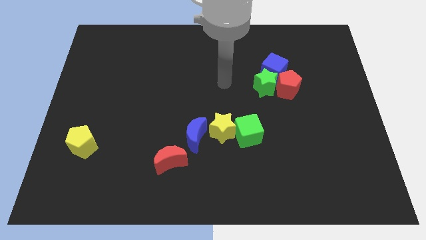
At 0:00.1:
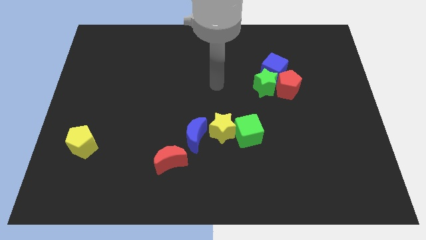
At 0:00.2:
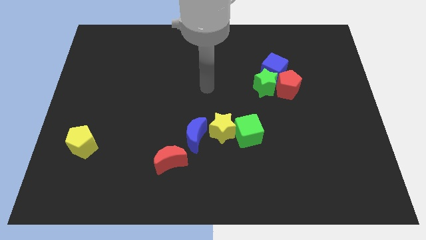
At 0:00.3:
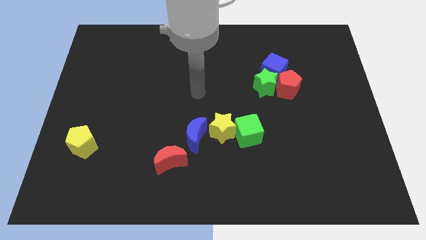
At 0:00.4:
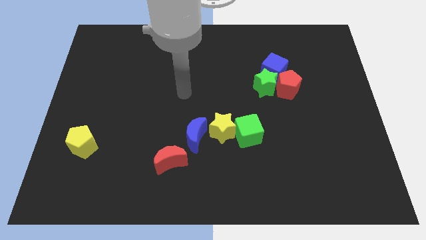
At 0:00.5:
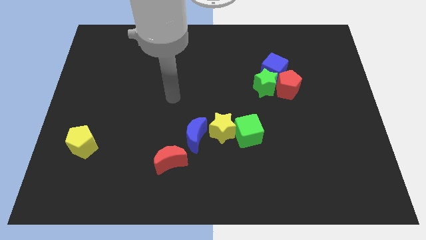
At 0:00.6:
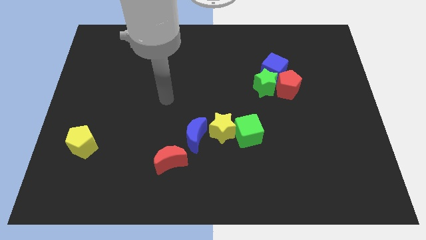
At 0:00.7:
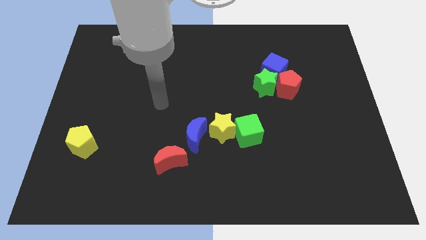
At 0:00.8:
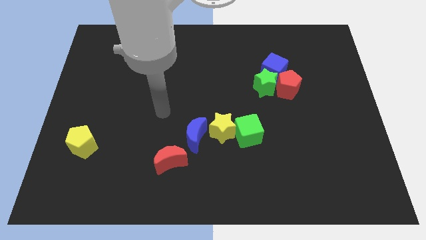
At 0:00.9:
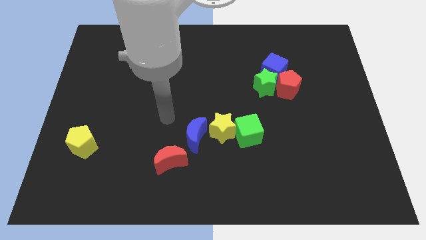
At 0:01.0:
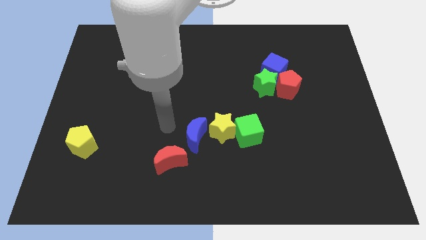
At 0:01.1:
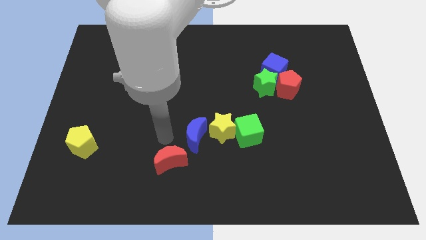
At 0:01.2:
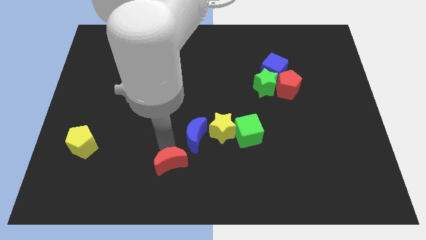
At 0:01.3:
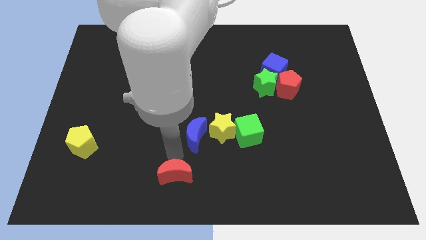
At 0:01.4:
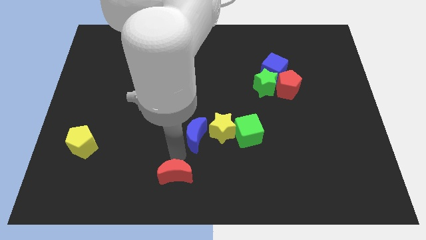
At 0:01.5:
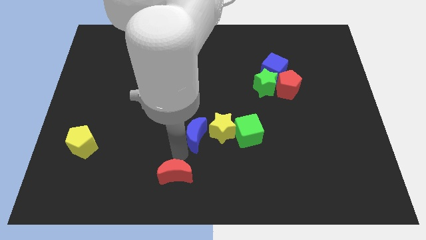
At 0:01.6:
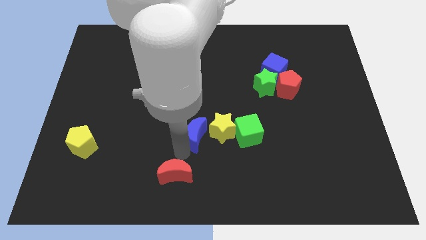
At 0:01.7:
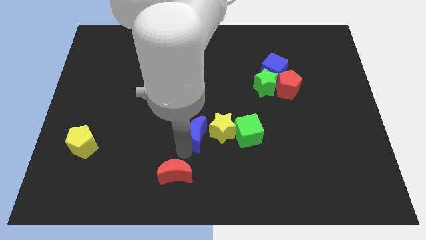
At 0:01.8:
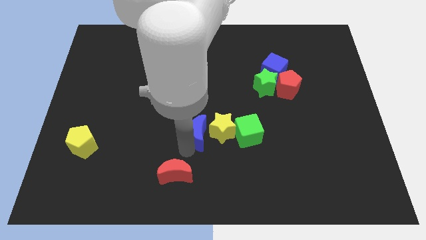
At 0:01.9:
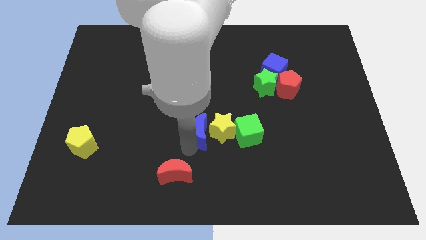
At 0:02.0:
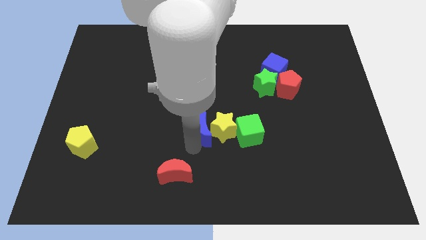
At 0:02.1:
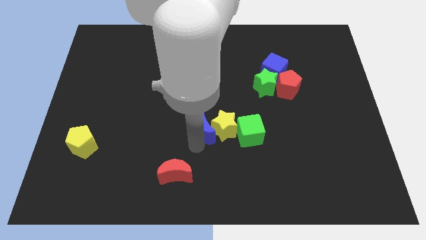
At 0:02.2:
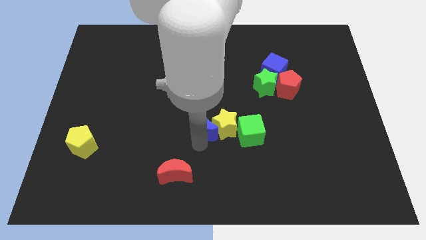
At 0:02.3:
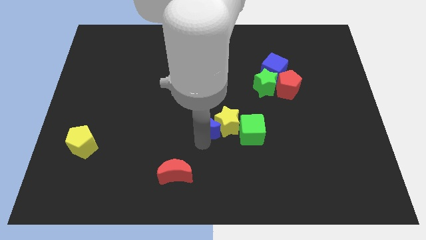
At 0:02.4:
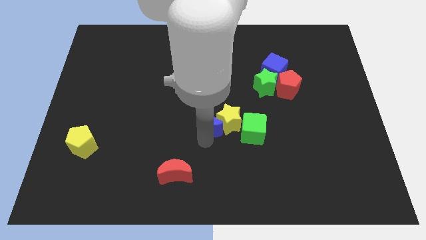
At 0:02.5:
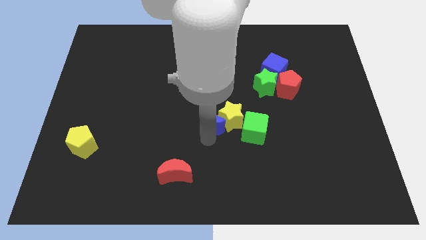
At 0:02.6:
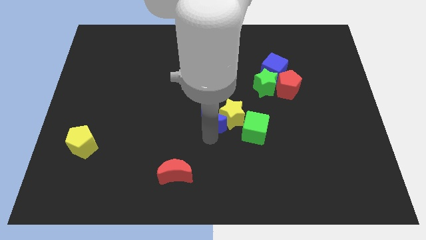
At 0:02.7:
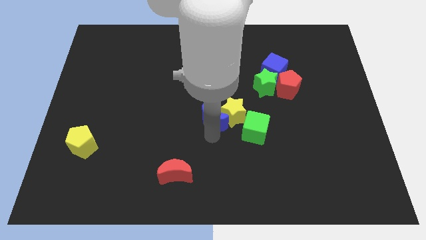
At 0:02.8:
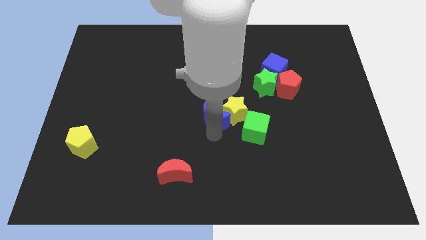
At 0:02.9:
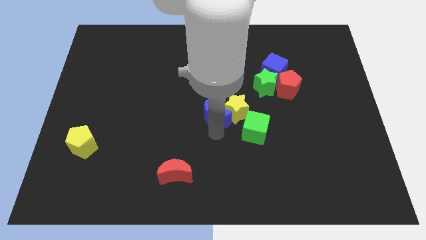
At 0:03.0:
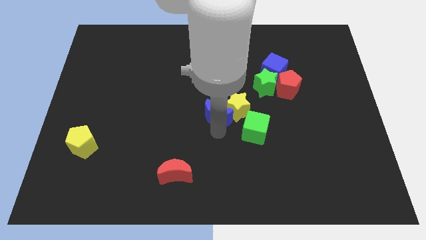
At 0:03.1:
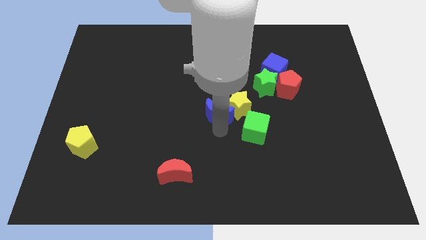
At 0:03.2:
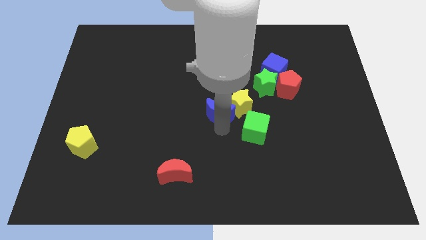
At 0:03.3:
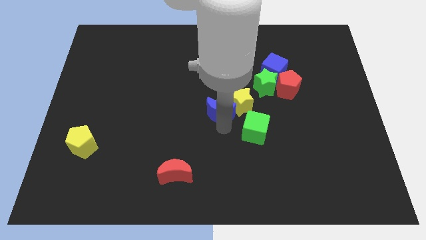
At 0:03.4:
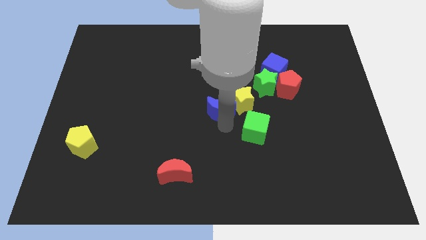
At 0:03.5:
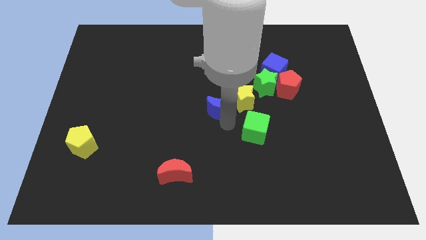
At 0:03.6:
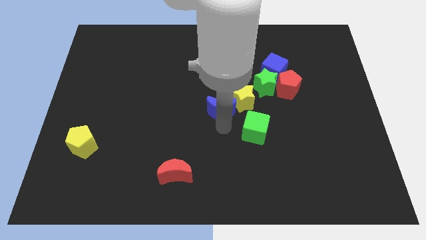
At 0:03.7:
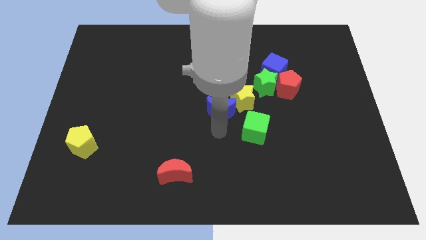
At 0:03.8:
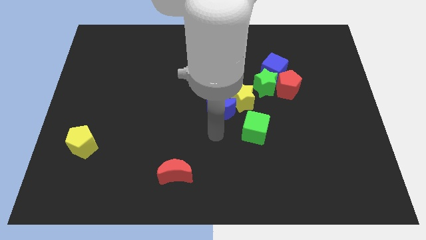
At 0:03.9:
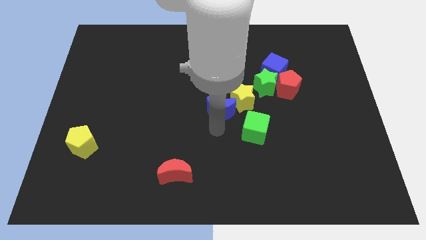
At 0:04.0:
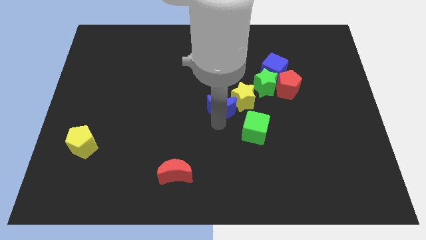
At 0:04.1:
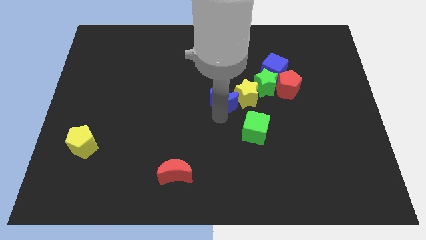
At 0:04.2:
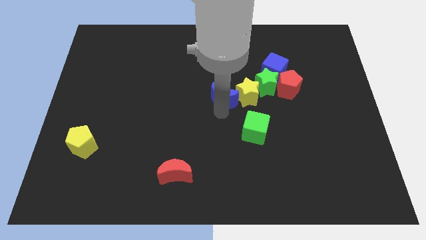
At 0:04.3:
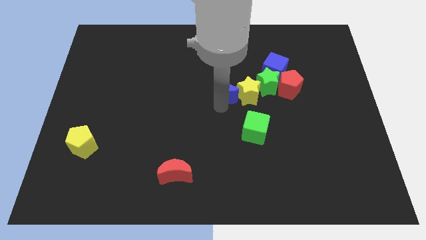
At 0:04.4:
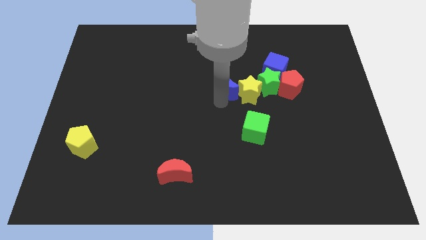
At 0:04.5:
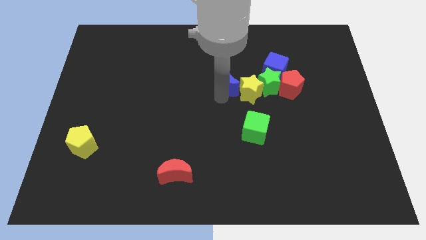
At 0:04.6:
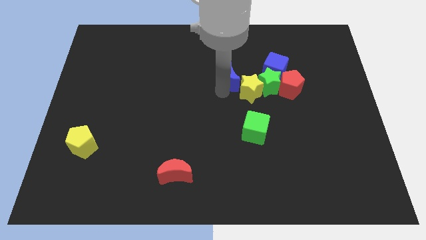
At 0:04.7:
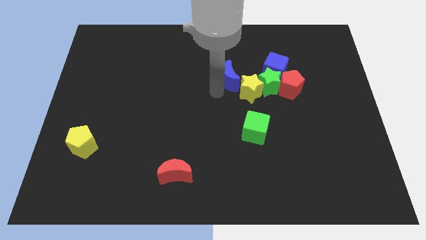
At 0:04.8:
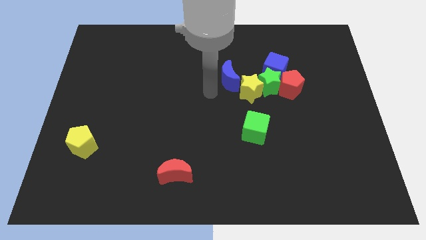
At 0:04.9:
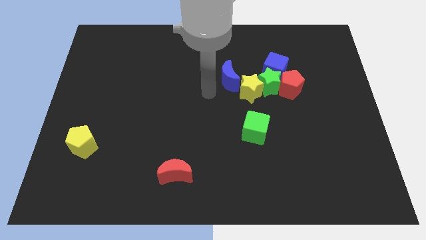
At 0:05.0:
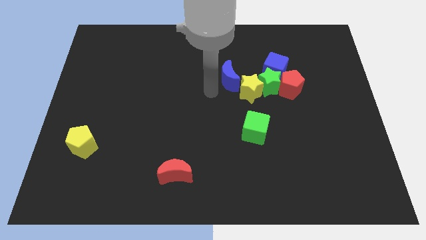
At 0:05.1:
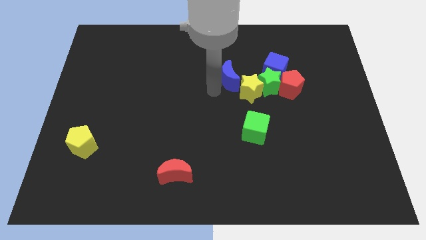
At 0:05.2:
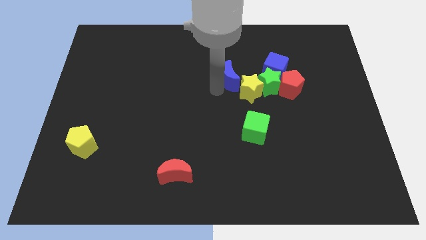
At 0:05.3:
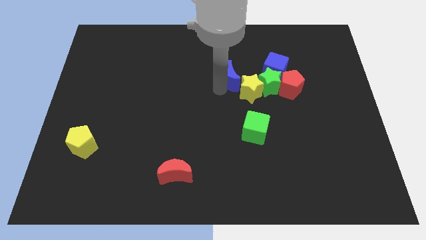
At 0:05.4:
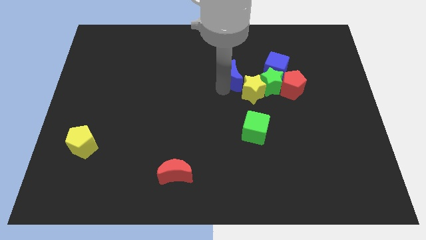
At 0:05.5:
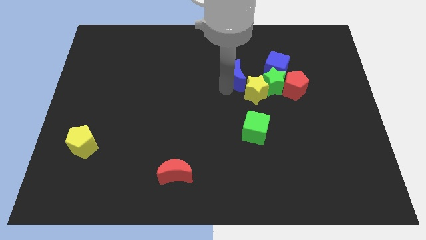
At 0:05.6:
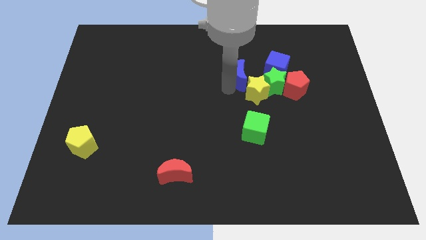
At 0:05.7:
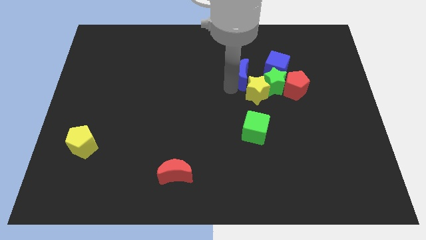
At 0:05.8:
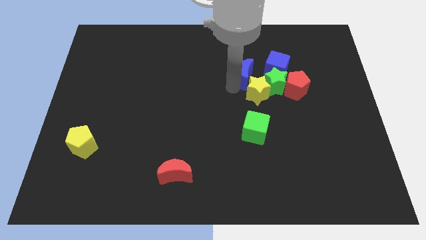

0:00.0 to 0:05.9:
slide the blue moon up and then right

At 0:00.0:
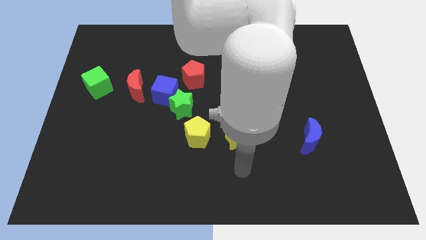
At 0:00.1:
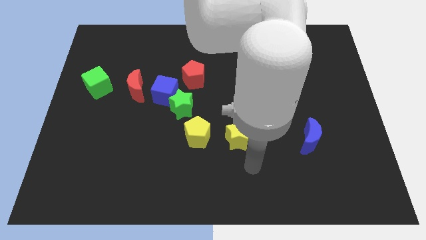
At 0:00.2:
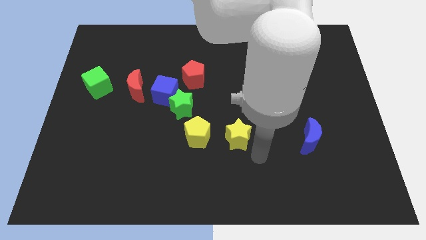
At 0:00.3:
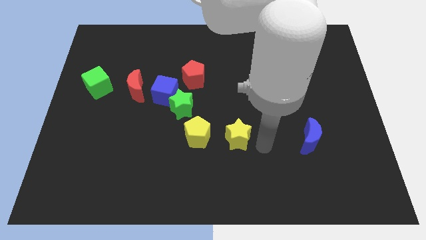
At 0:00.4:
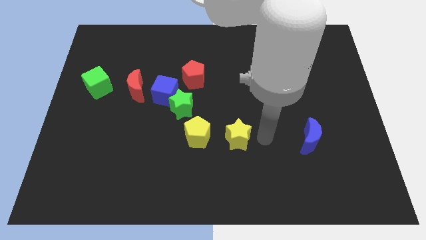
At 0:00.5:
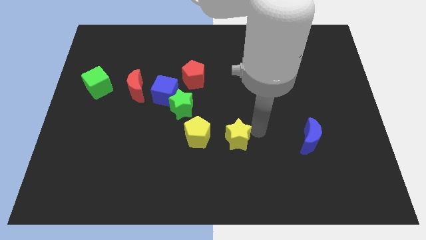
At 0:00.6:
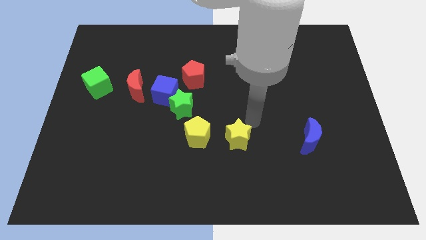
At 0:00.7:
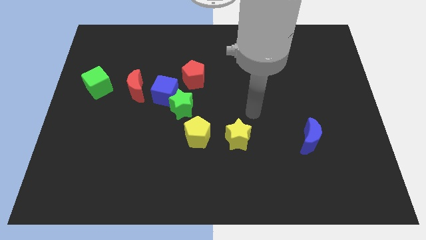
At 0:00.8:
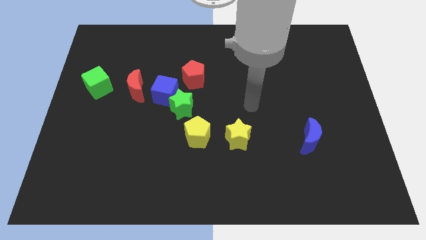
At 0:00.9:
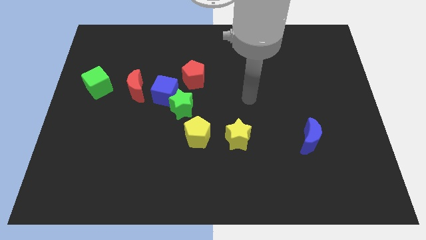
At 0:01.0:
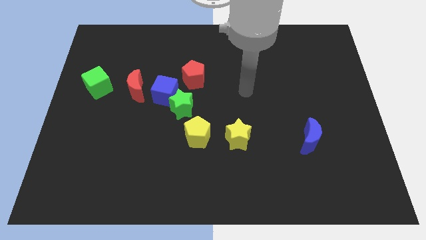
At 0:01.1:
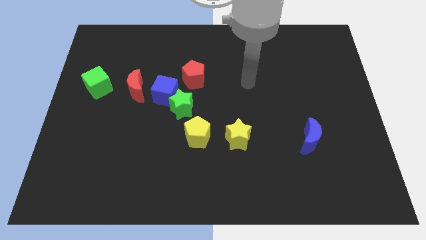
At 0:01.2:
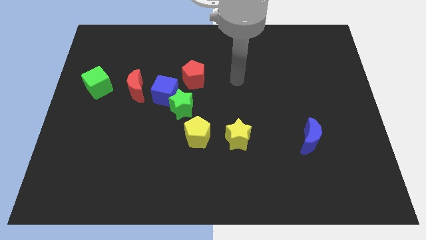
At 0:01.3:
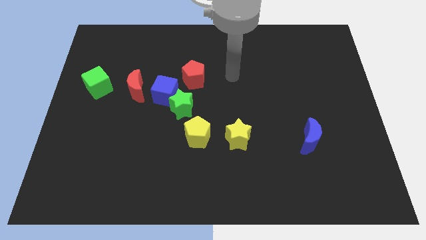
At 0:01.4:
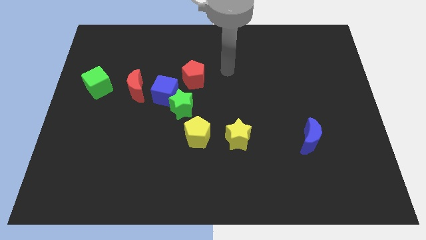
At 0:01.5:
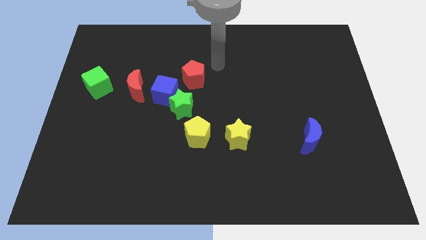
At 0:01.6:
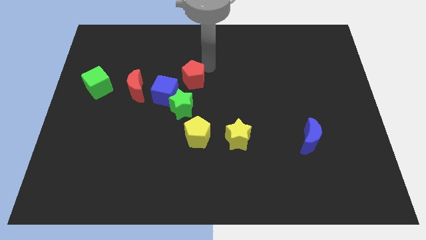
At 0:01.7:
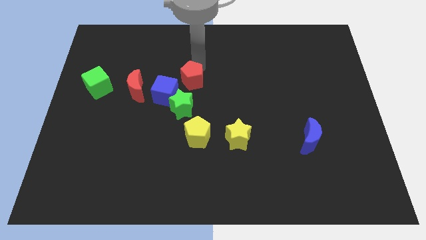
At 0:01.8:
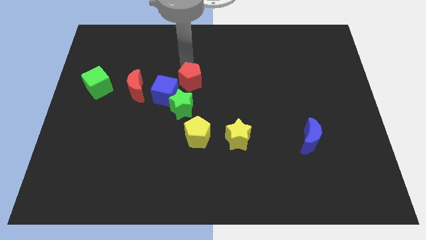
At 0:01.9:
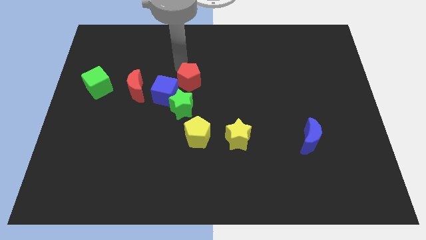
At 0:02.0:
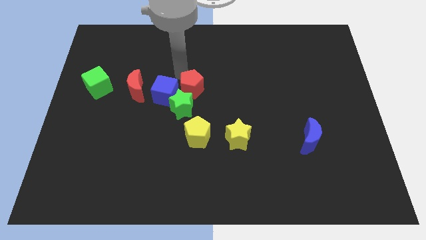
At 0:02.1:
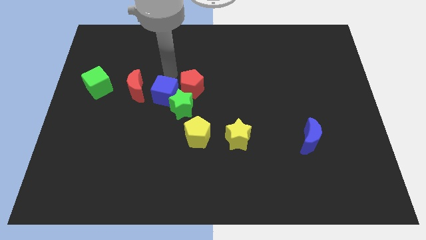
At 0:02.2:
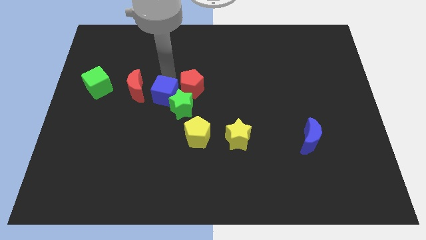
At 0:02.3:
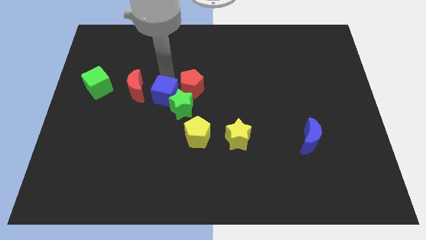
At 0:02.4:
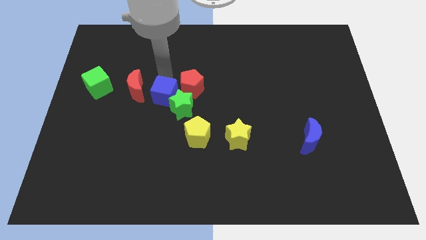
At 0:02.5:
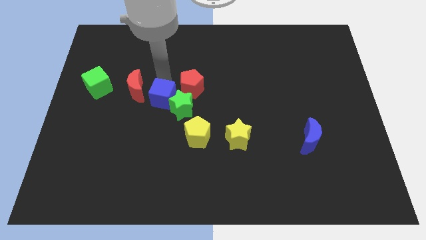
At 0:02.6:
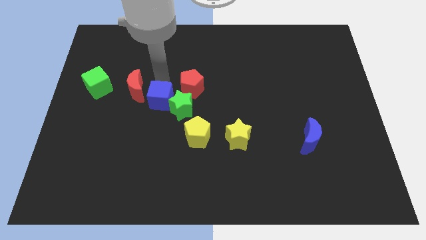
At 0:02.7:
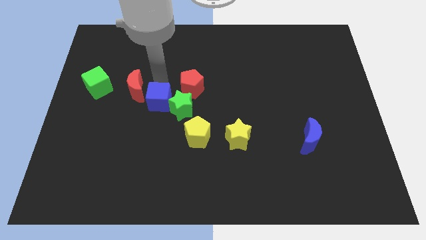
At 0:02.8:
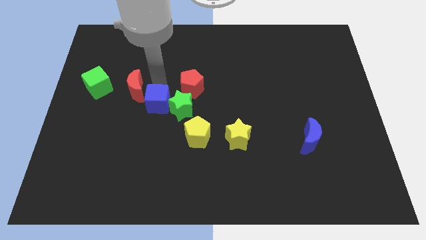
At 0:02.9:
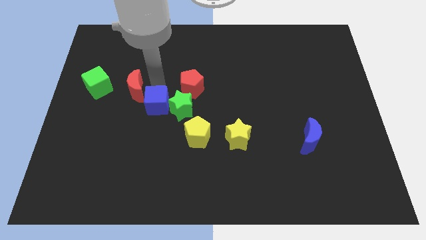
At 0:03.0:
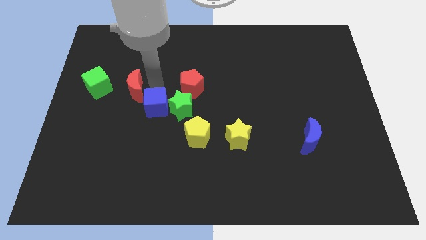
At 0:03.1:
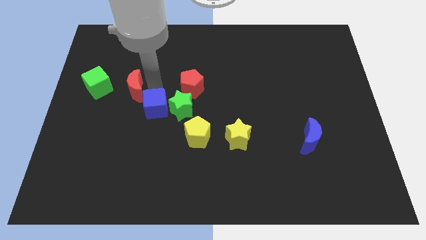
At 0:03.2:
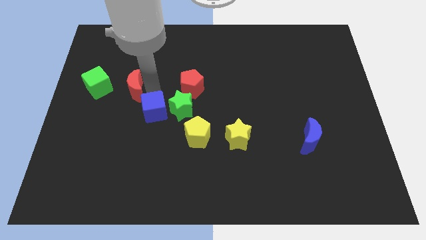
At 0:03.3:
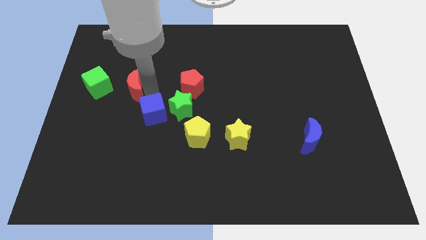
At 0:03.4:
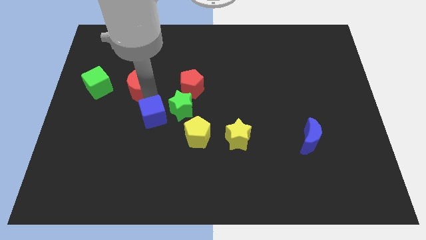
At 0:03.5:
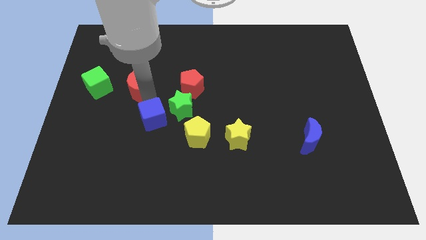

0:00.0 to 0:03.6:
slide the blue cube somewhat downwards
